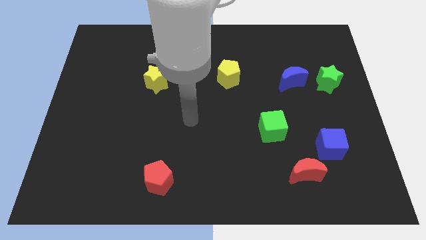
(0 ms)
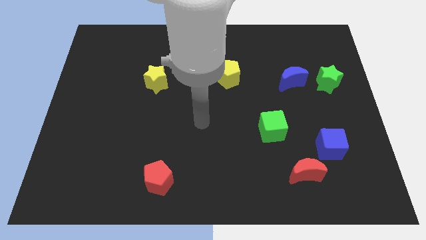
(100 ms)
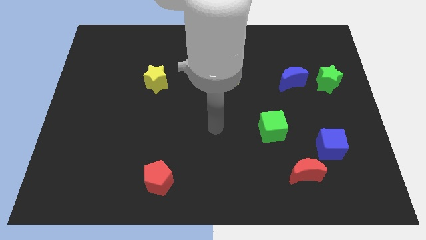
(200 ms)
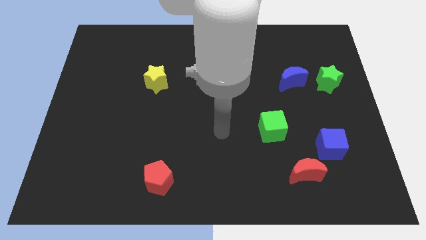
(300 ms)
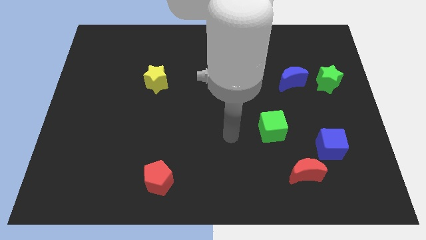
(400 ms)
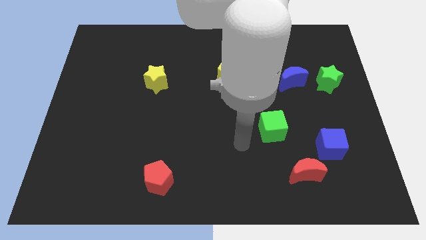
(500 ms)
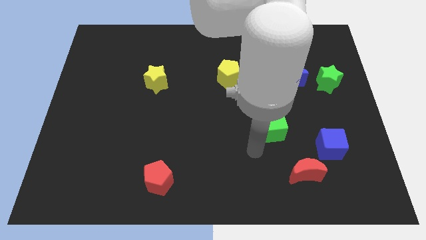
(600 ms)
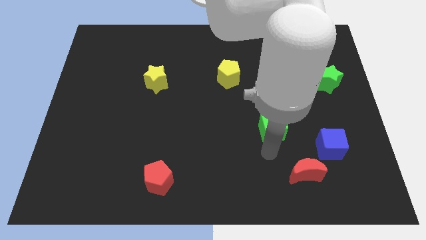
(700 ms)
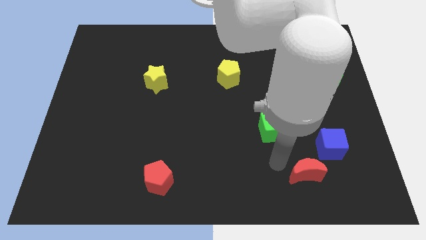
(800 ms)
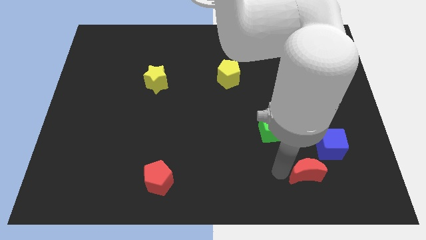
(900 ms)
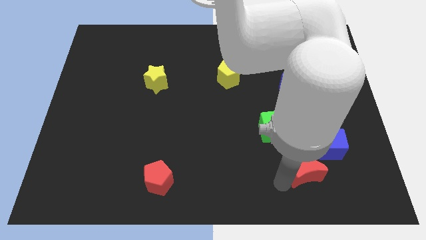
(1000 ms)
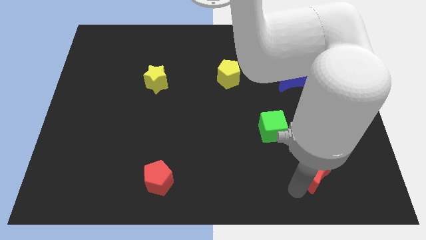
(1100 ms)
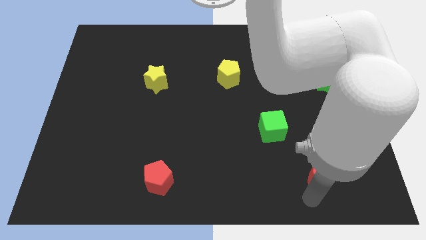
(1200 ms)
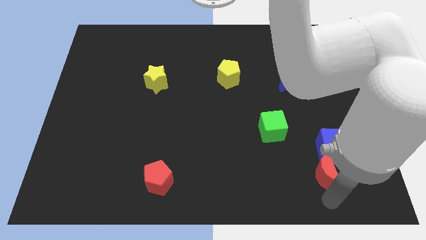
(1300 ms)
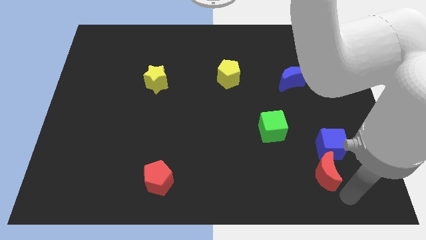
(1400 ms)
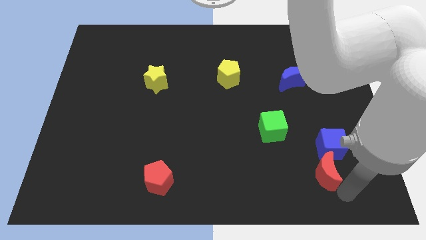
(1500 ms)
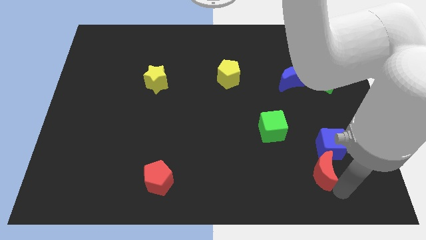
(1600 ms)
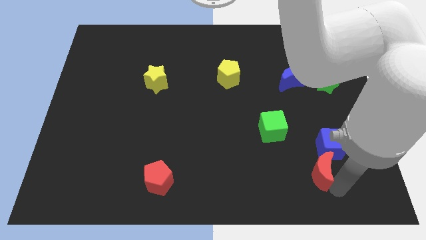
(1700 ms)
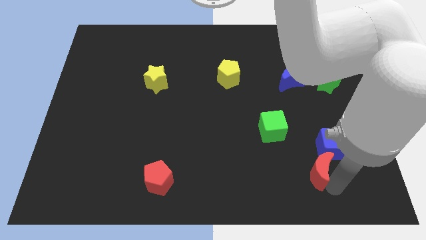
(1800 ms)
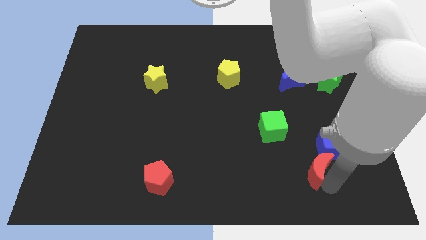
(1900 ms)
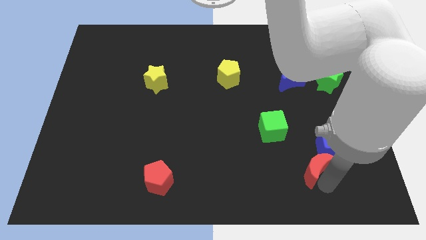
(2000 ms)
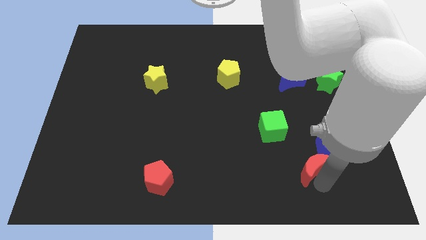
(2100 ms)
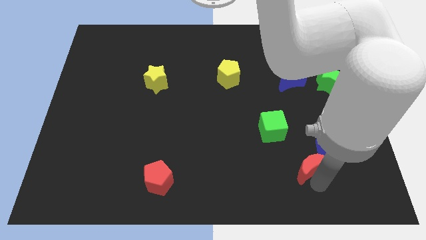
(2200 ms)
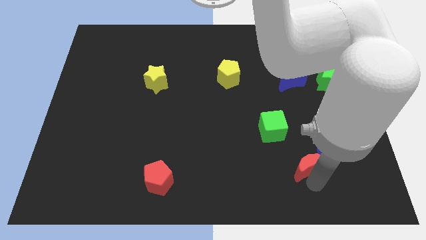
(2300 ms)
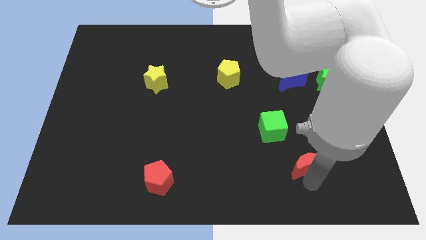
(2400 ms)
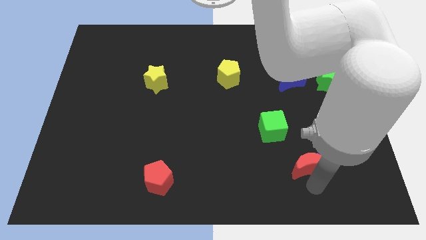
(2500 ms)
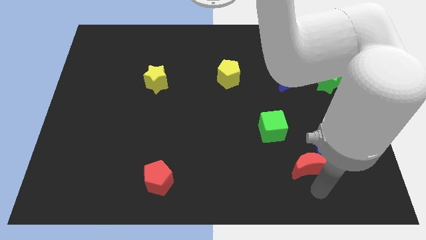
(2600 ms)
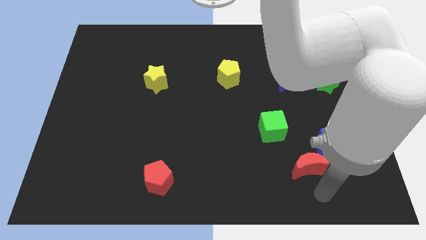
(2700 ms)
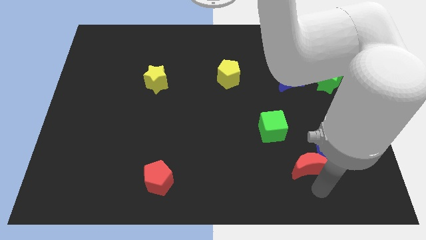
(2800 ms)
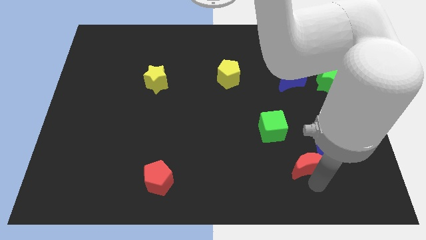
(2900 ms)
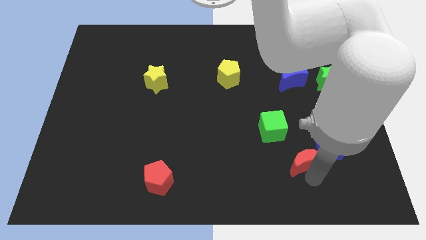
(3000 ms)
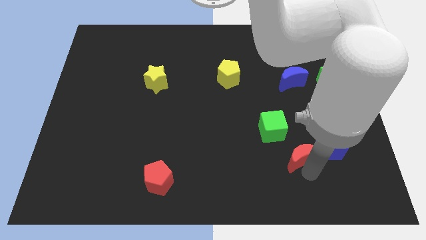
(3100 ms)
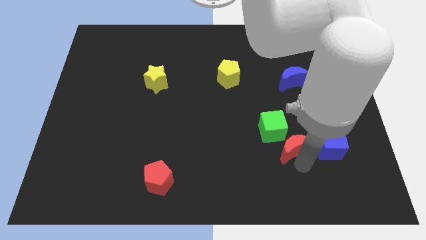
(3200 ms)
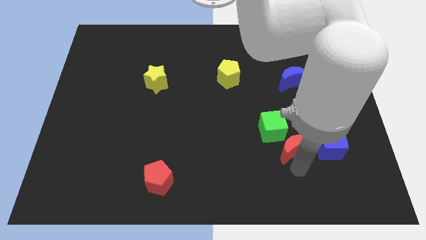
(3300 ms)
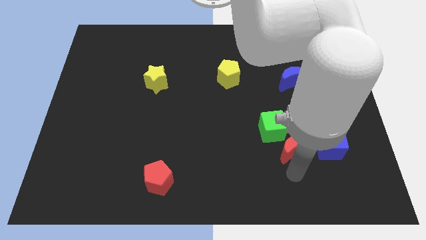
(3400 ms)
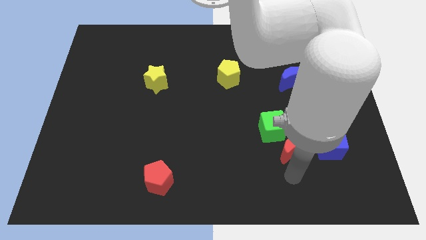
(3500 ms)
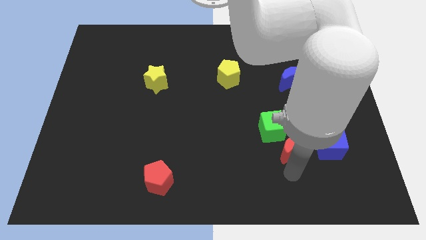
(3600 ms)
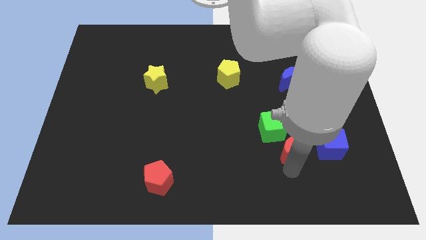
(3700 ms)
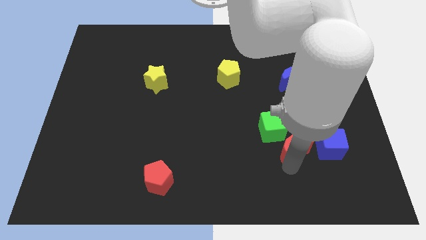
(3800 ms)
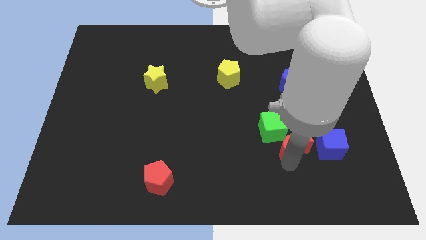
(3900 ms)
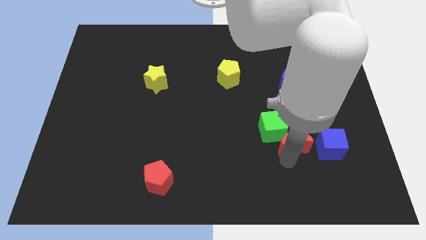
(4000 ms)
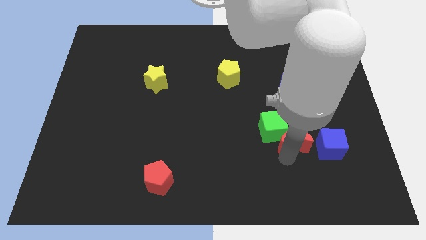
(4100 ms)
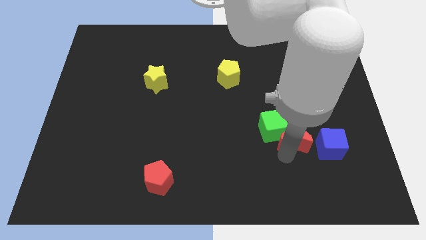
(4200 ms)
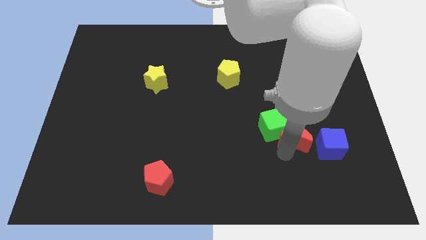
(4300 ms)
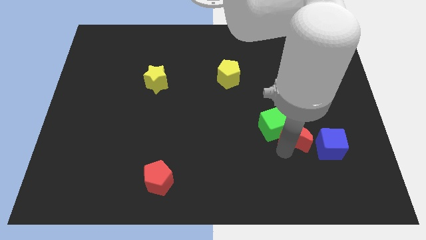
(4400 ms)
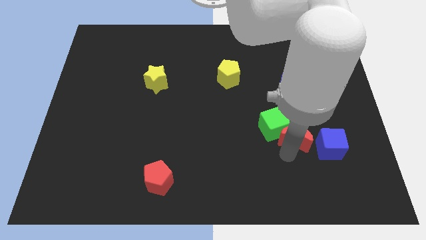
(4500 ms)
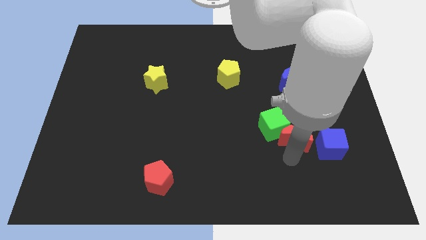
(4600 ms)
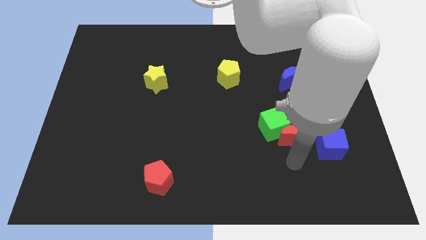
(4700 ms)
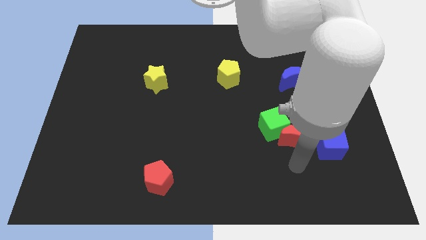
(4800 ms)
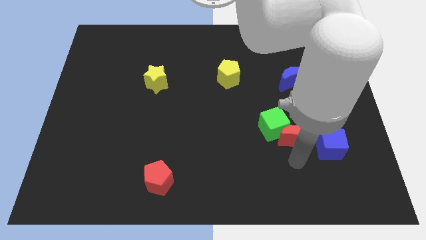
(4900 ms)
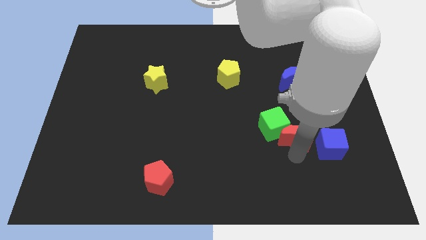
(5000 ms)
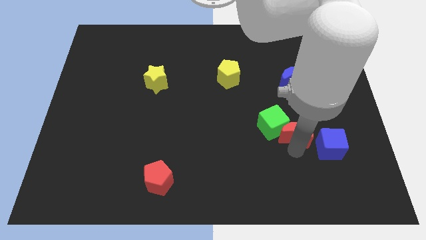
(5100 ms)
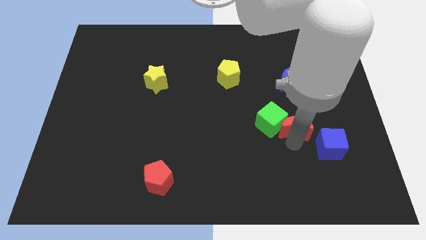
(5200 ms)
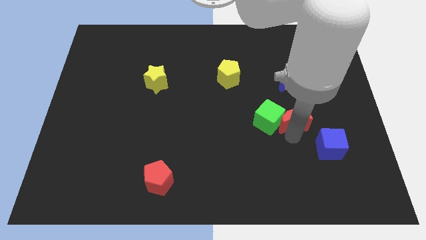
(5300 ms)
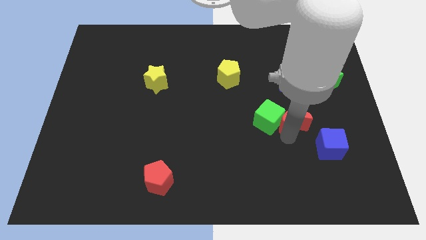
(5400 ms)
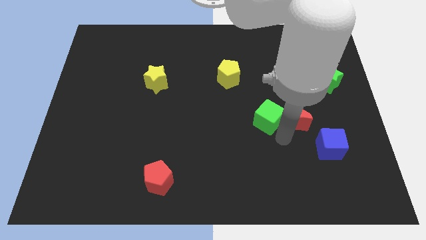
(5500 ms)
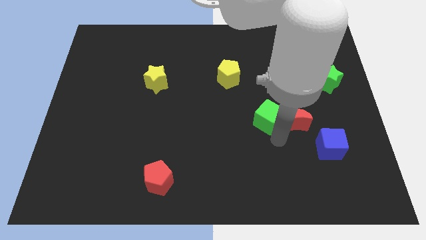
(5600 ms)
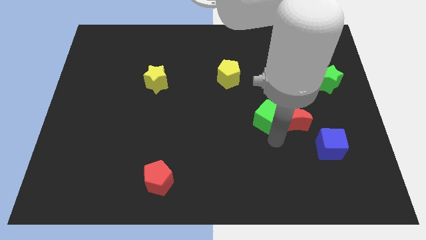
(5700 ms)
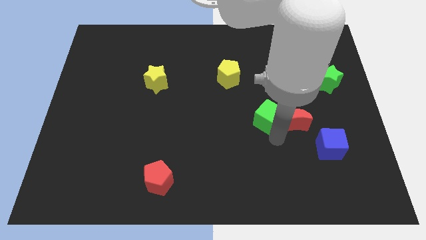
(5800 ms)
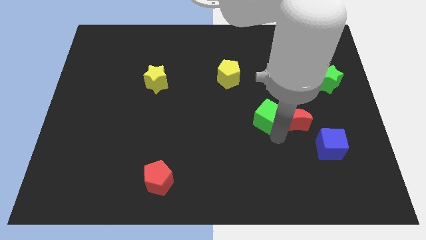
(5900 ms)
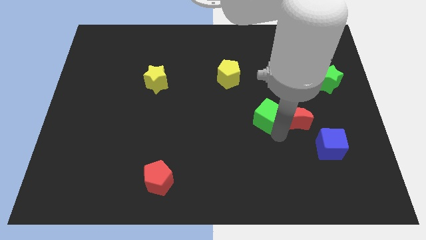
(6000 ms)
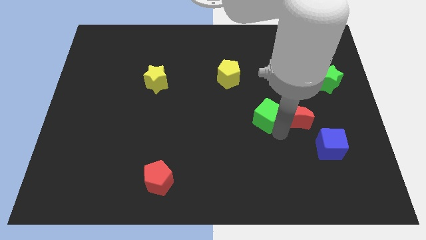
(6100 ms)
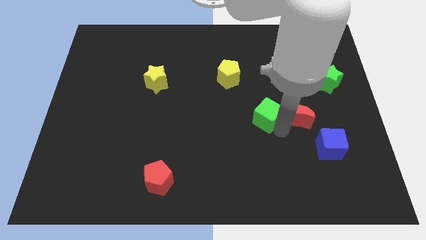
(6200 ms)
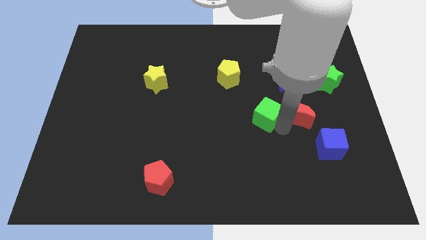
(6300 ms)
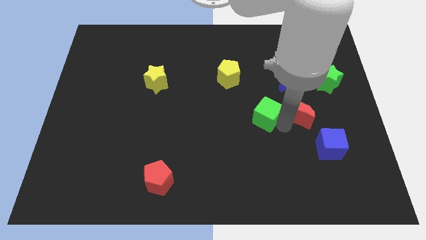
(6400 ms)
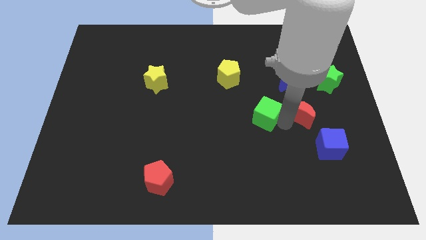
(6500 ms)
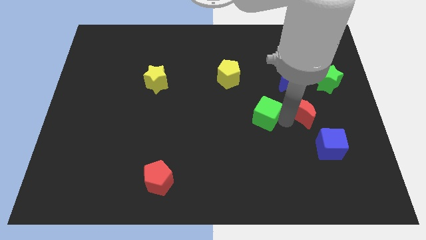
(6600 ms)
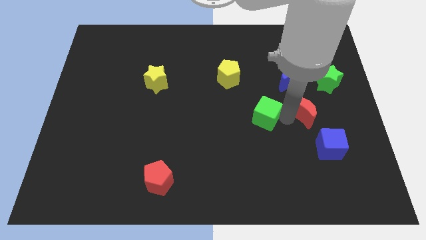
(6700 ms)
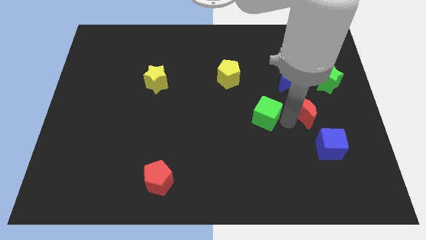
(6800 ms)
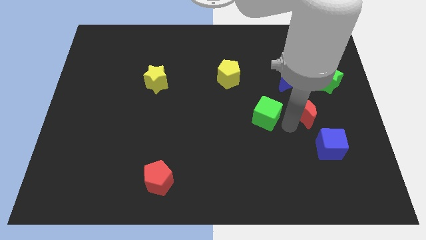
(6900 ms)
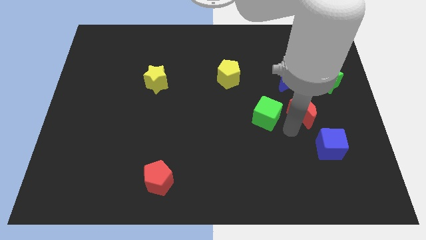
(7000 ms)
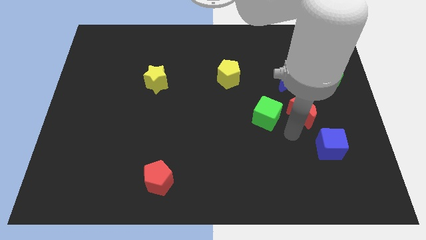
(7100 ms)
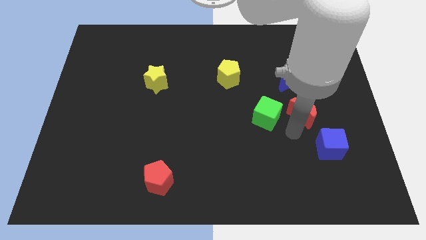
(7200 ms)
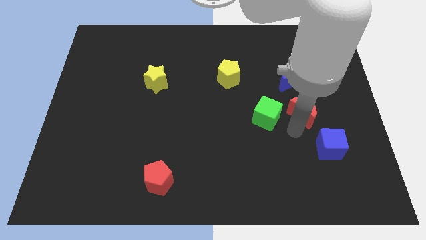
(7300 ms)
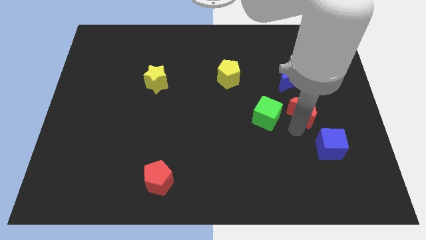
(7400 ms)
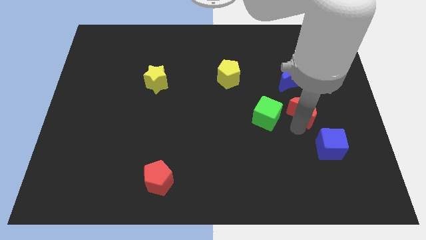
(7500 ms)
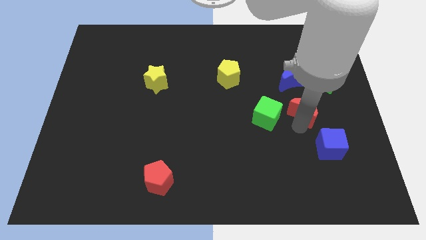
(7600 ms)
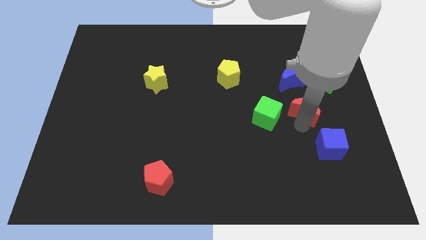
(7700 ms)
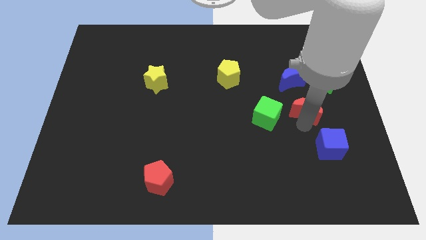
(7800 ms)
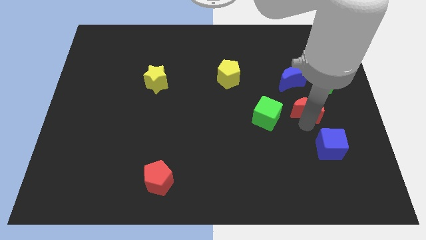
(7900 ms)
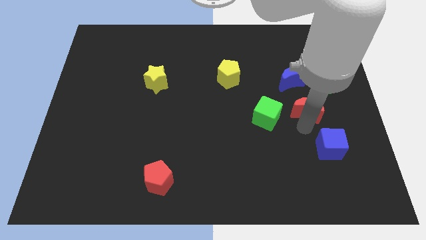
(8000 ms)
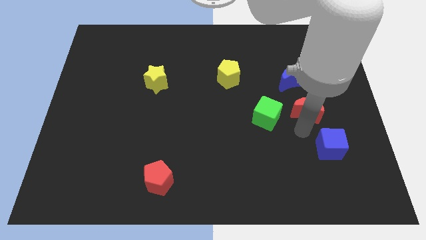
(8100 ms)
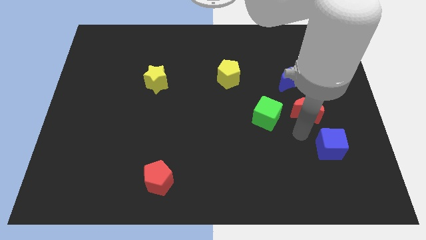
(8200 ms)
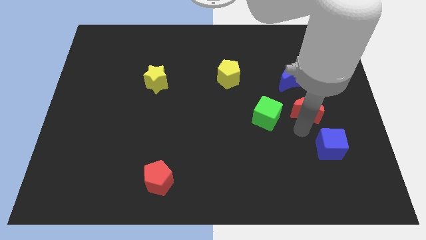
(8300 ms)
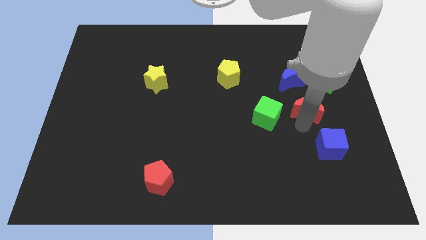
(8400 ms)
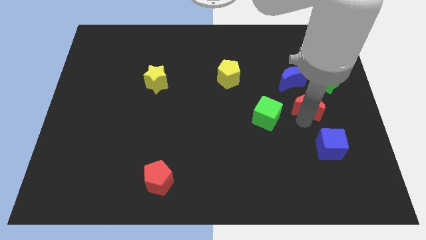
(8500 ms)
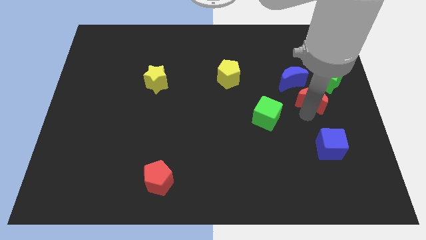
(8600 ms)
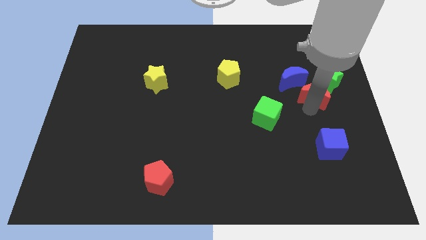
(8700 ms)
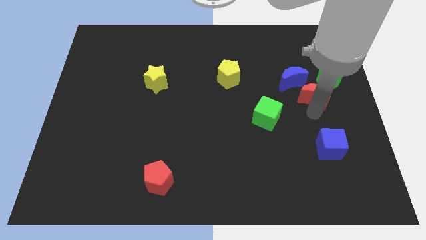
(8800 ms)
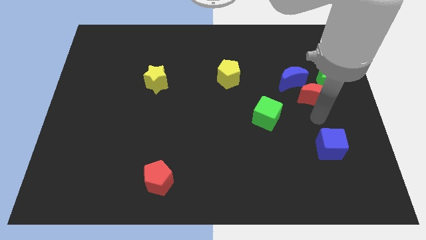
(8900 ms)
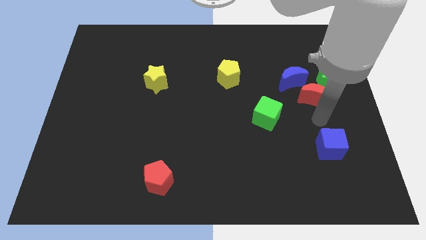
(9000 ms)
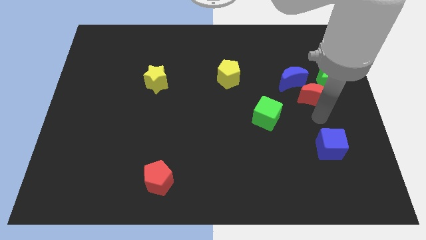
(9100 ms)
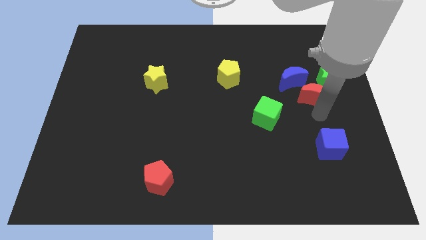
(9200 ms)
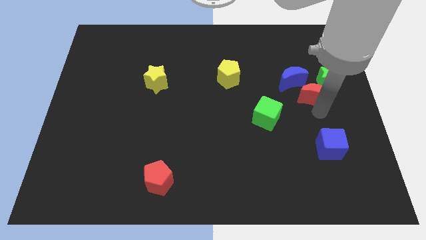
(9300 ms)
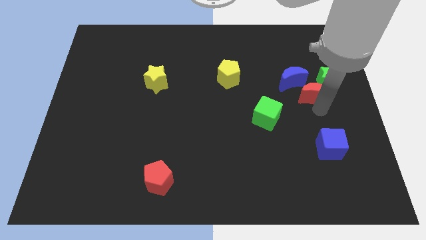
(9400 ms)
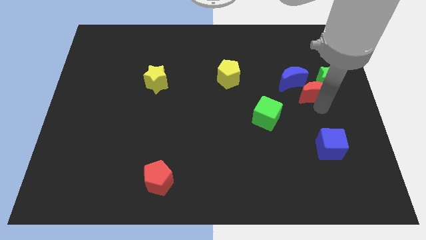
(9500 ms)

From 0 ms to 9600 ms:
push the red moon up
